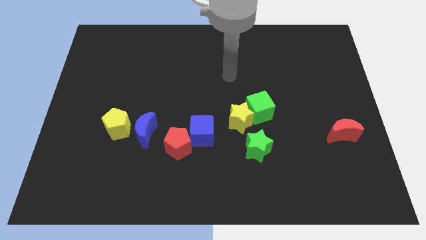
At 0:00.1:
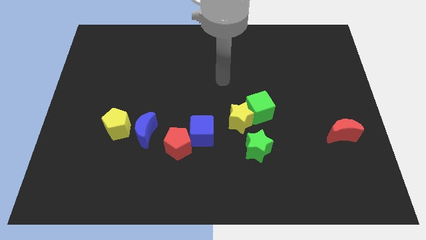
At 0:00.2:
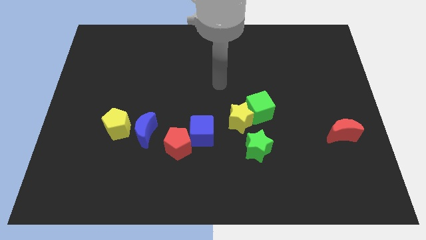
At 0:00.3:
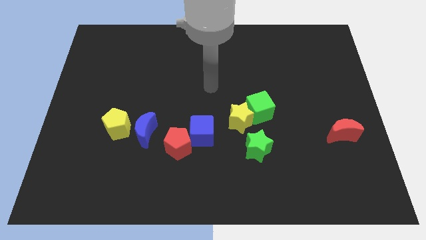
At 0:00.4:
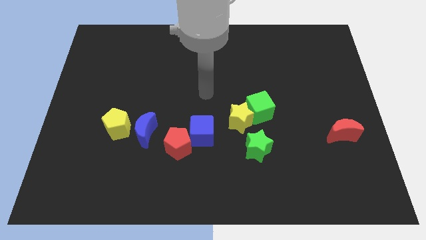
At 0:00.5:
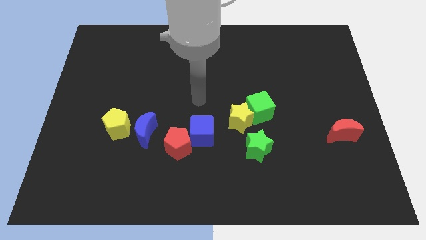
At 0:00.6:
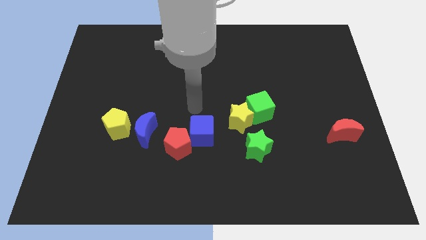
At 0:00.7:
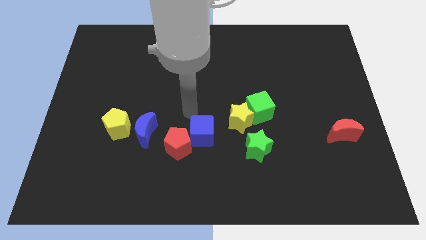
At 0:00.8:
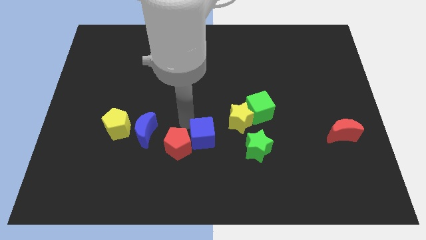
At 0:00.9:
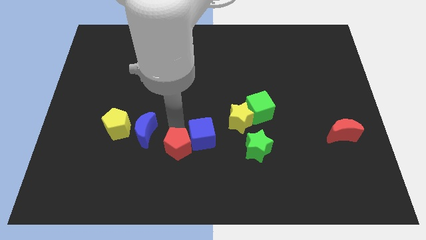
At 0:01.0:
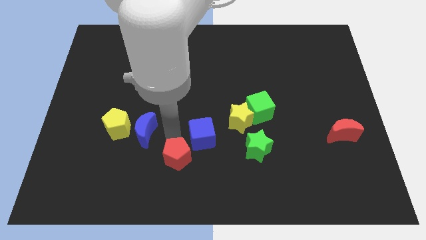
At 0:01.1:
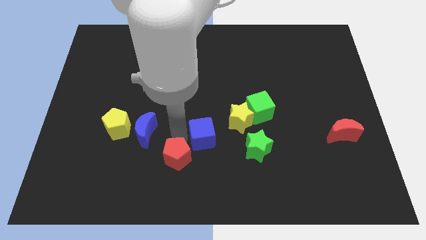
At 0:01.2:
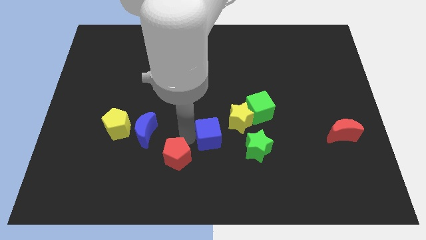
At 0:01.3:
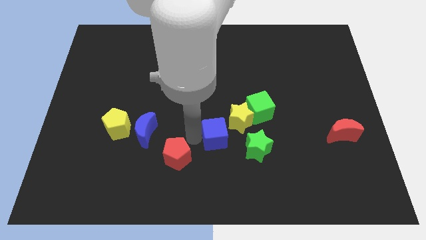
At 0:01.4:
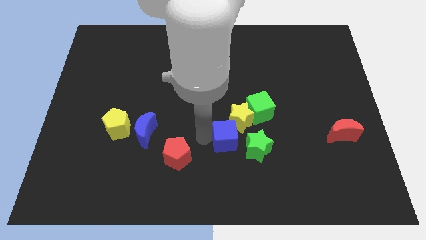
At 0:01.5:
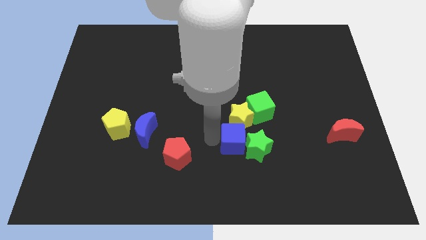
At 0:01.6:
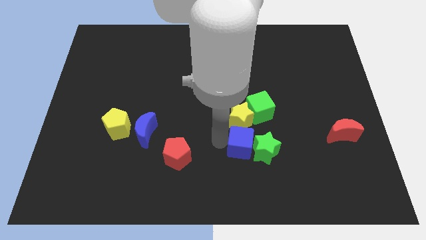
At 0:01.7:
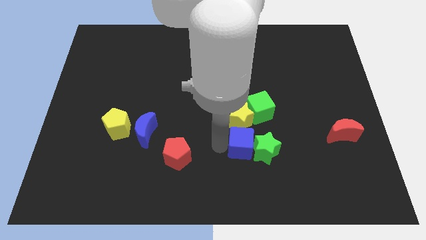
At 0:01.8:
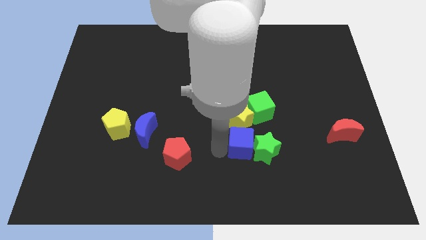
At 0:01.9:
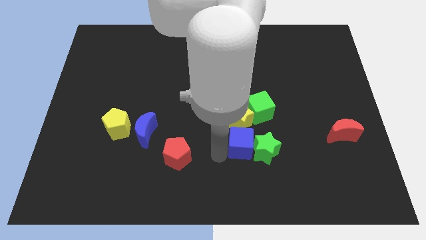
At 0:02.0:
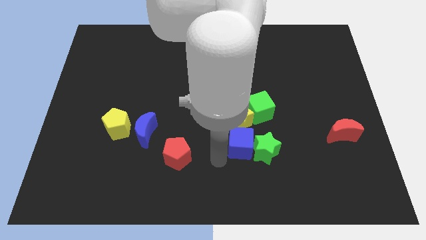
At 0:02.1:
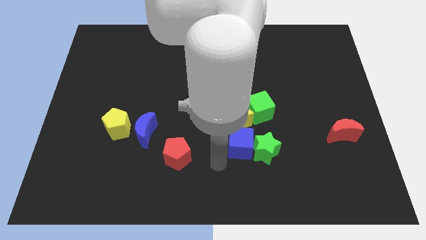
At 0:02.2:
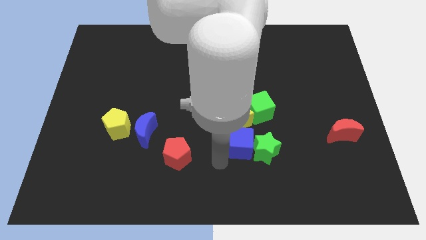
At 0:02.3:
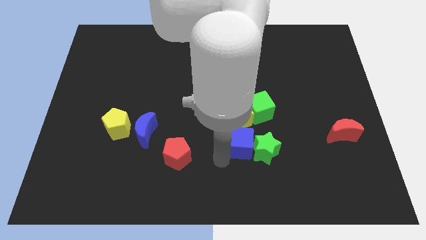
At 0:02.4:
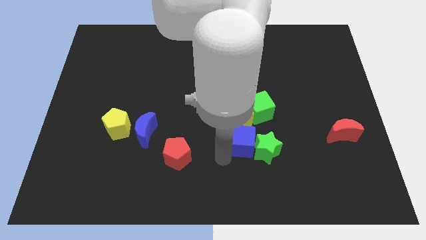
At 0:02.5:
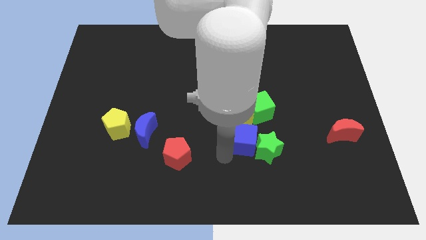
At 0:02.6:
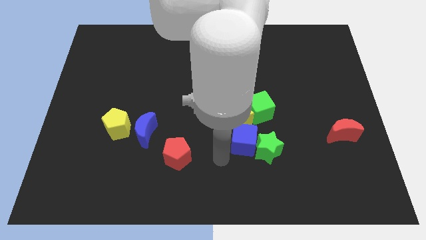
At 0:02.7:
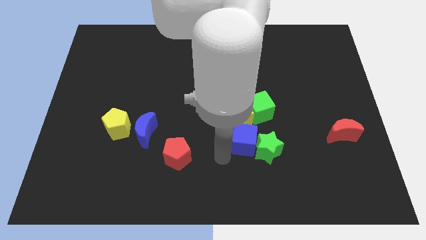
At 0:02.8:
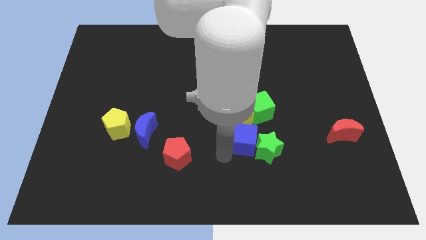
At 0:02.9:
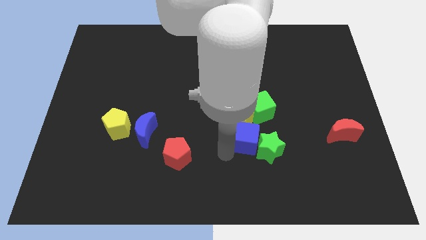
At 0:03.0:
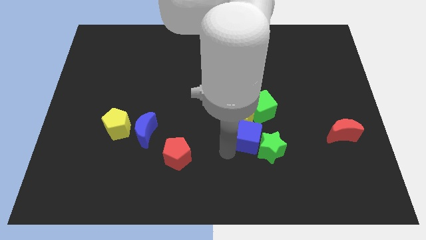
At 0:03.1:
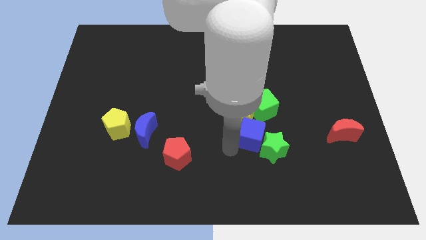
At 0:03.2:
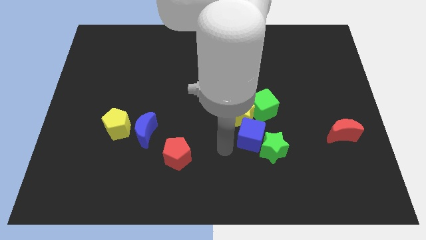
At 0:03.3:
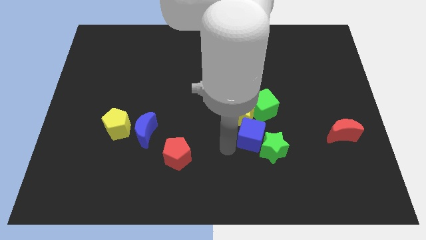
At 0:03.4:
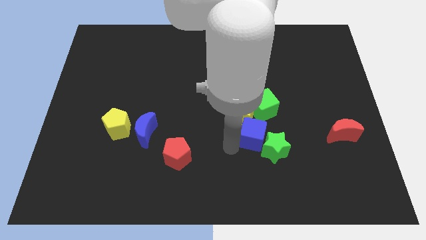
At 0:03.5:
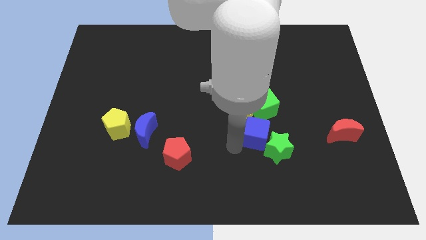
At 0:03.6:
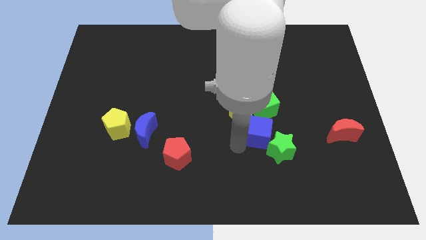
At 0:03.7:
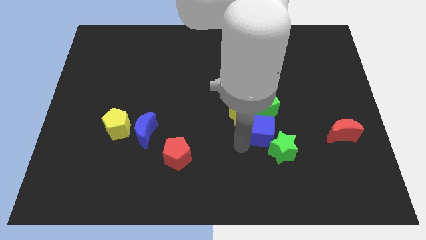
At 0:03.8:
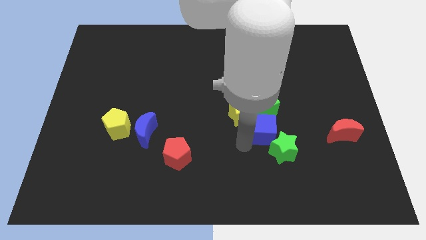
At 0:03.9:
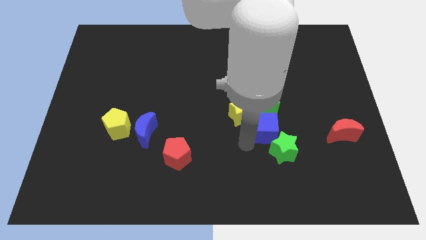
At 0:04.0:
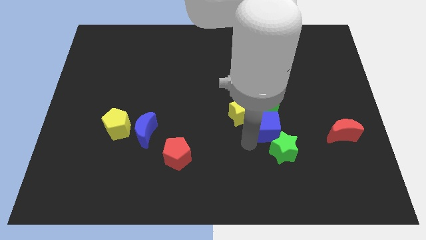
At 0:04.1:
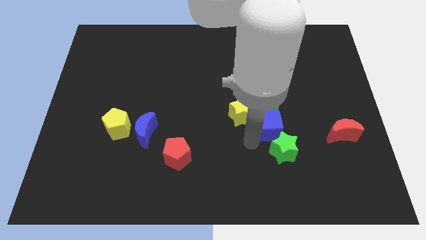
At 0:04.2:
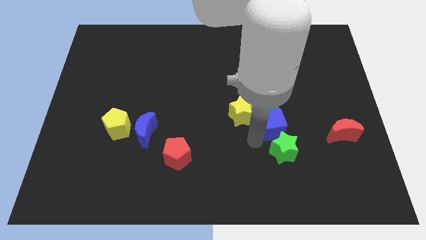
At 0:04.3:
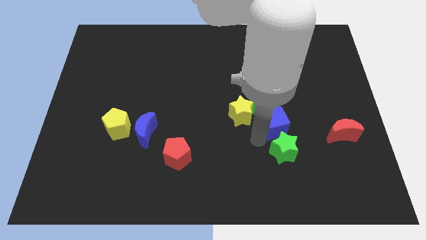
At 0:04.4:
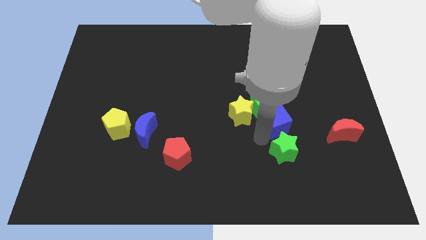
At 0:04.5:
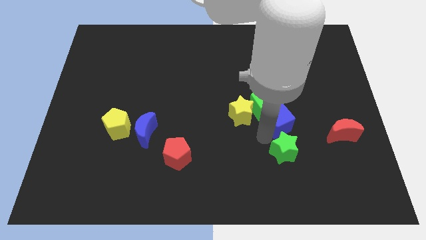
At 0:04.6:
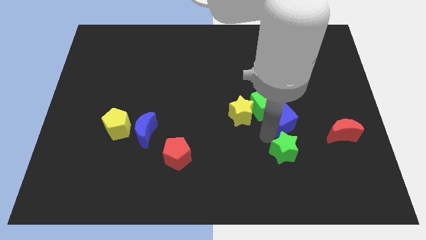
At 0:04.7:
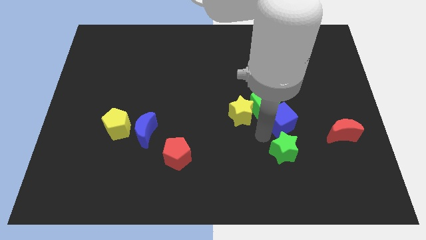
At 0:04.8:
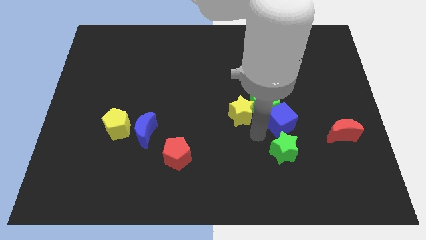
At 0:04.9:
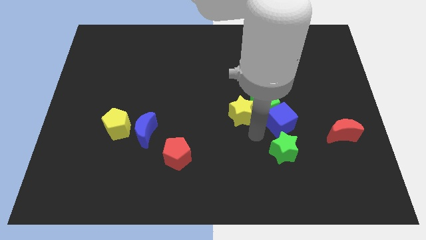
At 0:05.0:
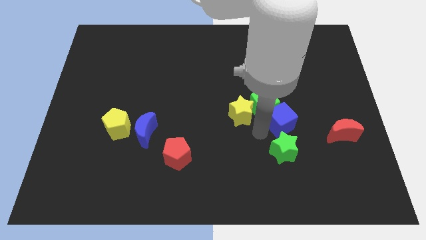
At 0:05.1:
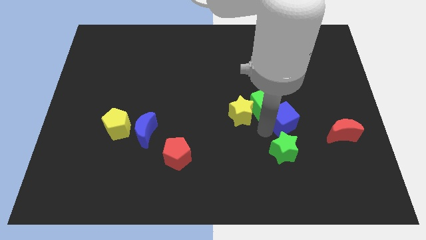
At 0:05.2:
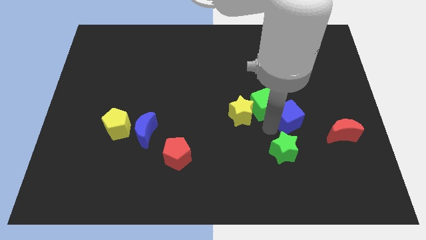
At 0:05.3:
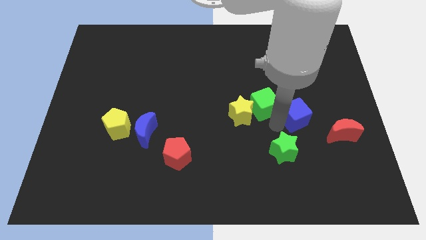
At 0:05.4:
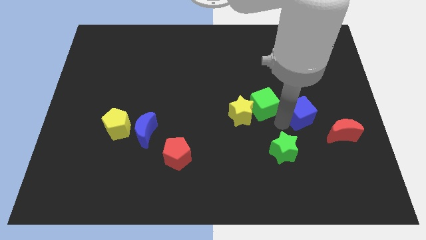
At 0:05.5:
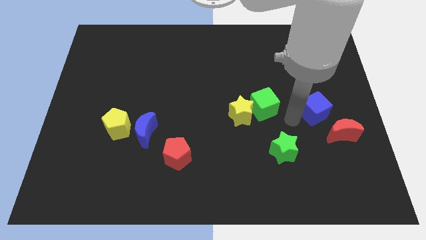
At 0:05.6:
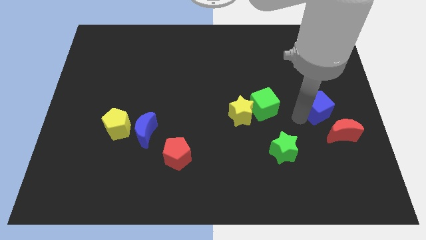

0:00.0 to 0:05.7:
push the blue cube to the top of the red moon

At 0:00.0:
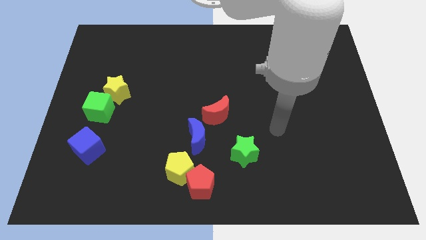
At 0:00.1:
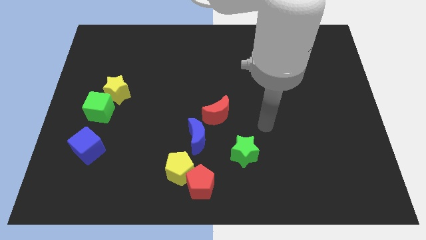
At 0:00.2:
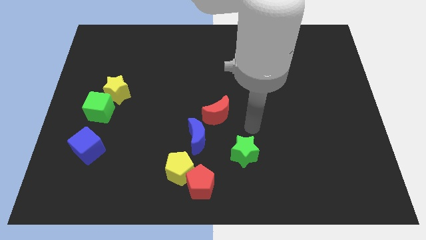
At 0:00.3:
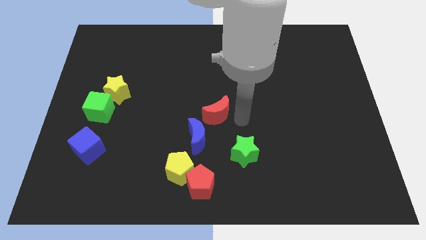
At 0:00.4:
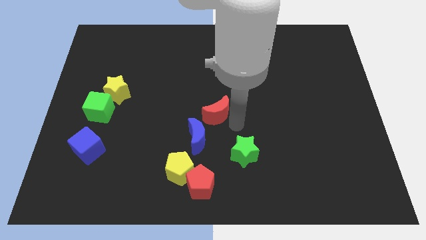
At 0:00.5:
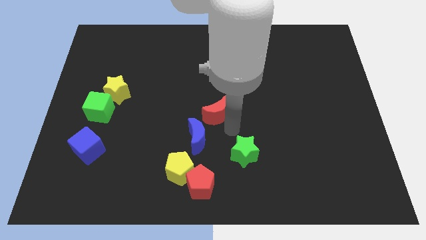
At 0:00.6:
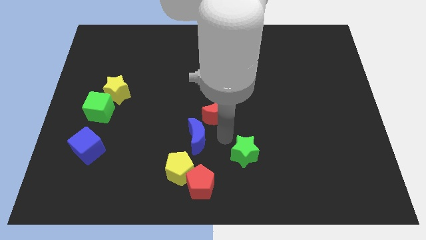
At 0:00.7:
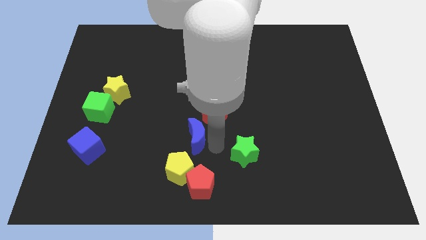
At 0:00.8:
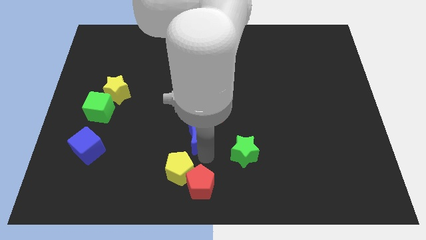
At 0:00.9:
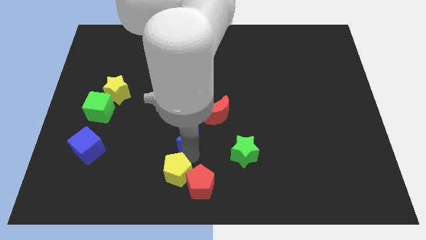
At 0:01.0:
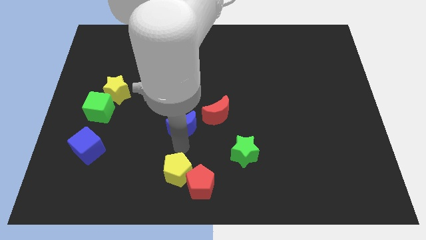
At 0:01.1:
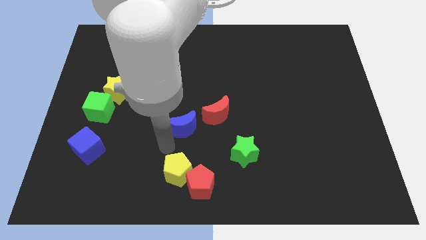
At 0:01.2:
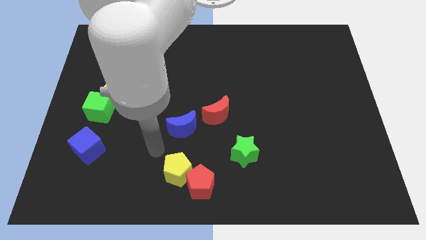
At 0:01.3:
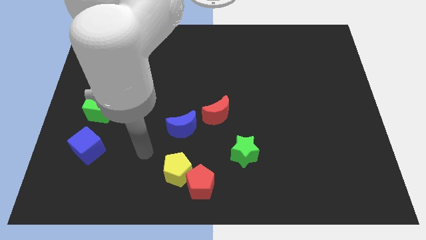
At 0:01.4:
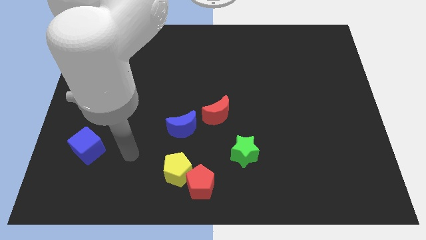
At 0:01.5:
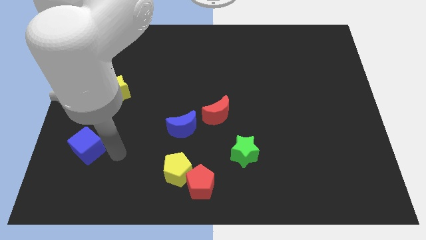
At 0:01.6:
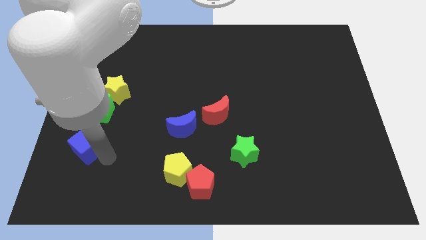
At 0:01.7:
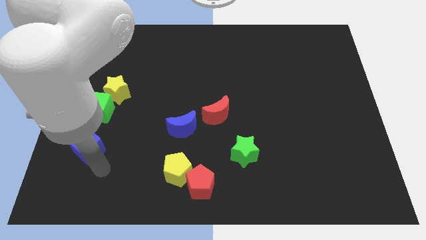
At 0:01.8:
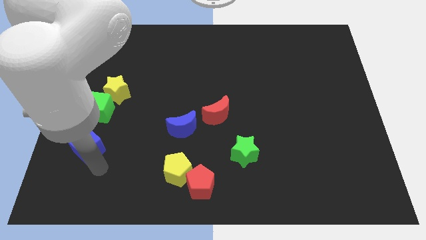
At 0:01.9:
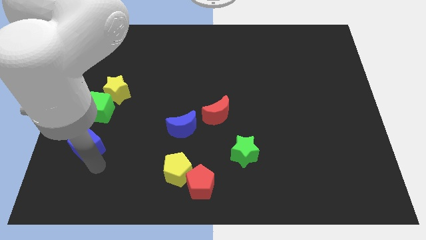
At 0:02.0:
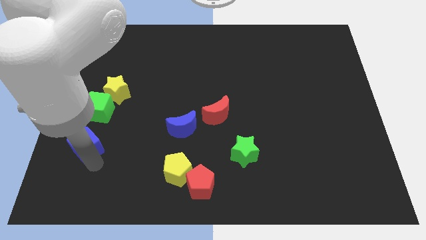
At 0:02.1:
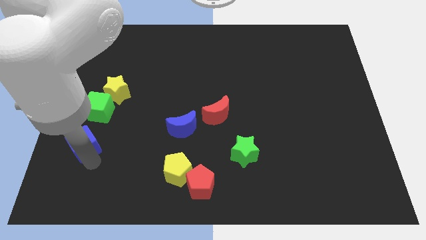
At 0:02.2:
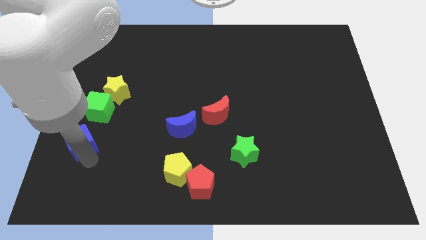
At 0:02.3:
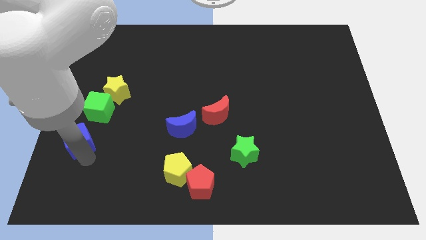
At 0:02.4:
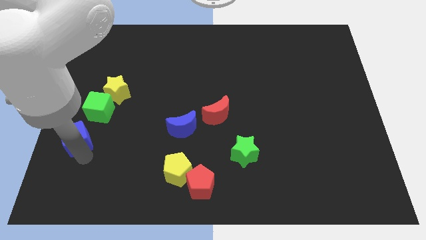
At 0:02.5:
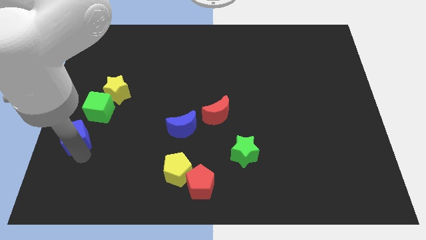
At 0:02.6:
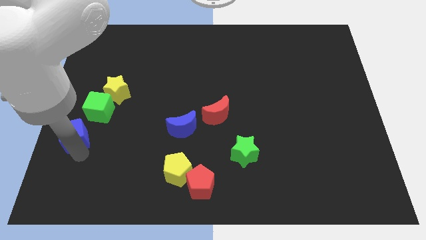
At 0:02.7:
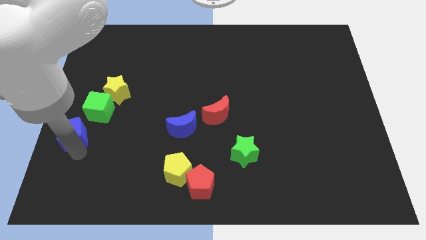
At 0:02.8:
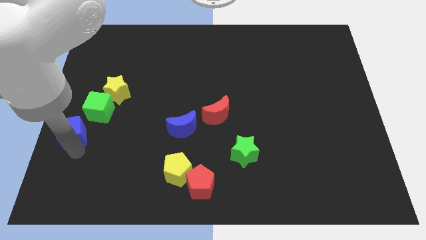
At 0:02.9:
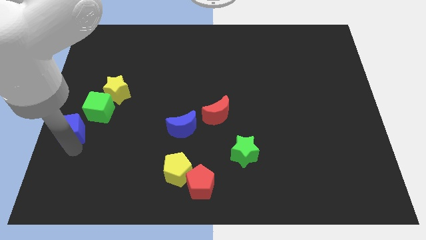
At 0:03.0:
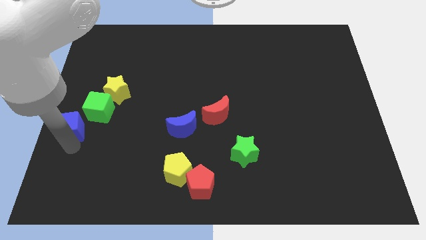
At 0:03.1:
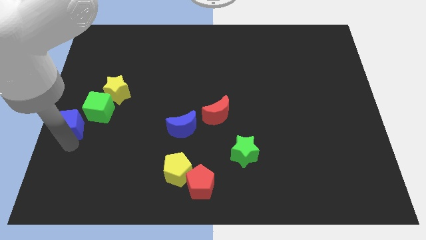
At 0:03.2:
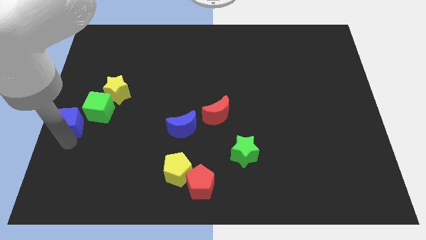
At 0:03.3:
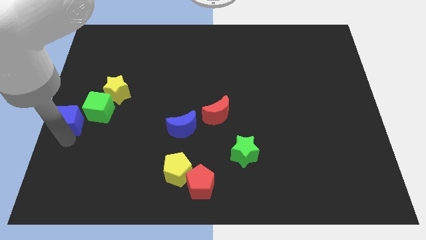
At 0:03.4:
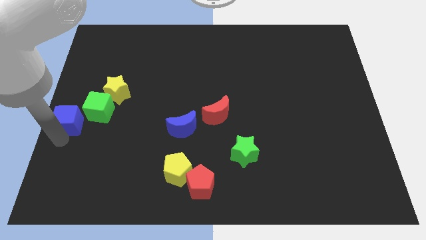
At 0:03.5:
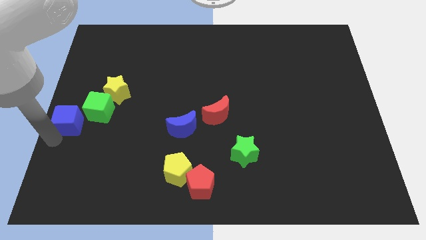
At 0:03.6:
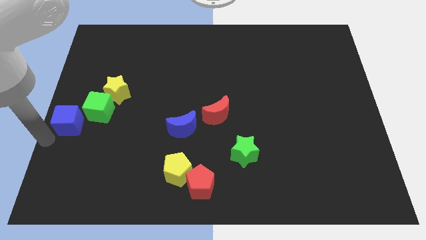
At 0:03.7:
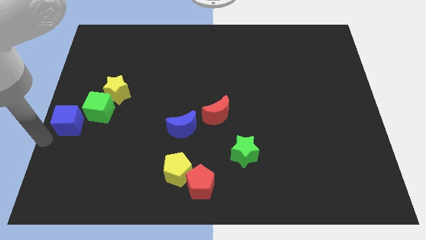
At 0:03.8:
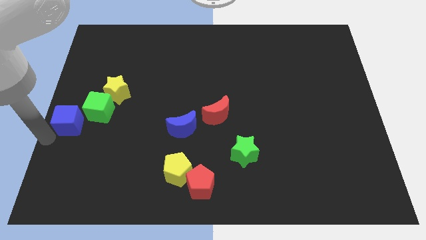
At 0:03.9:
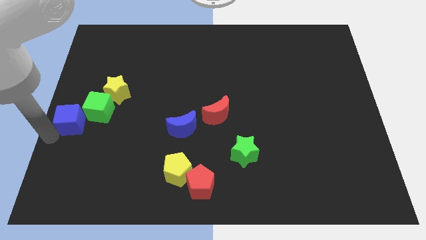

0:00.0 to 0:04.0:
move the blue cube to the bottom left of the yellow star
